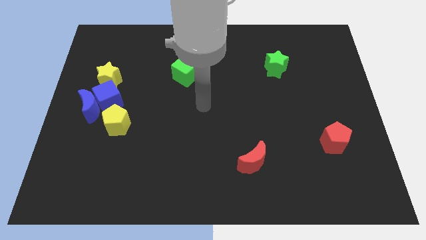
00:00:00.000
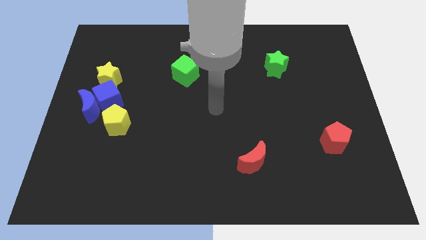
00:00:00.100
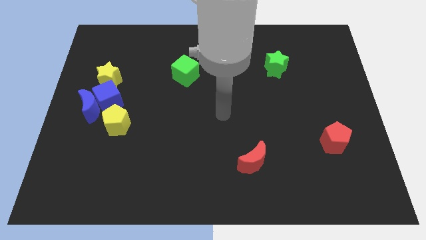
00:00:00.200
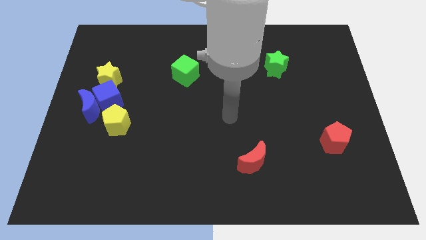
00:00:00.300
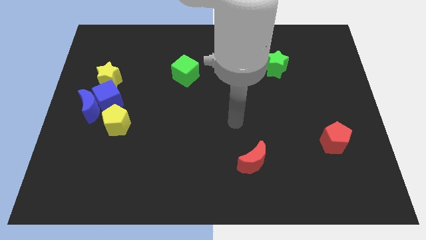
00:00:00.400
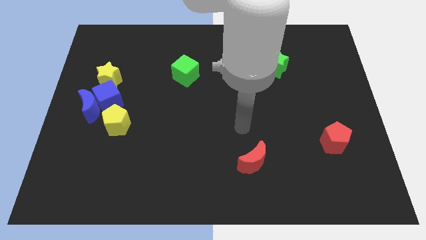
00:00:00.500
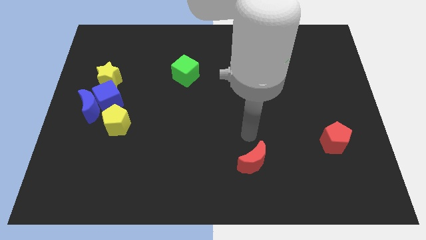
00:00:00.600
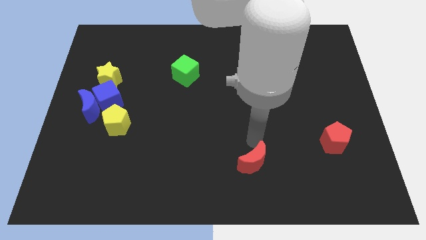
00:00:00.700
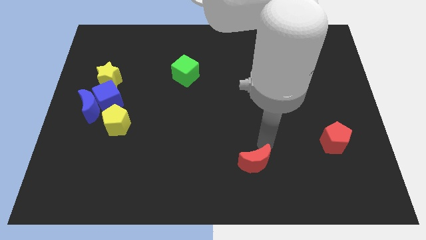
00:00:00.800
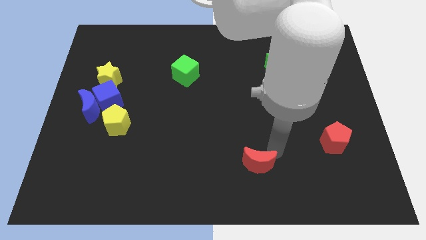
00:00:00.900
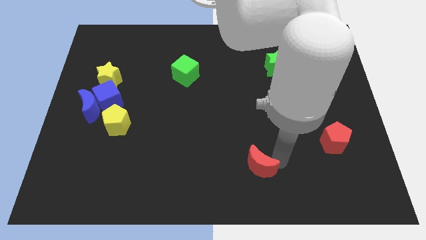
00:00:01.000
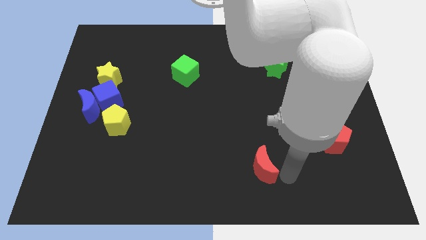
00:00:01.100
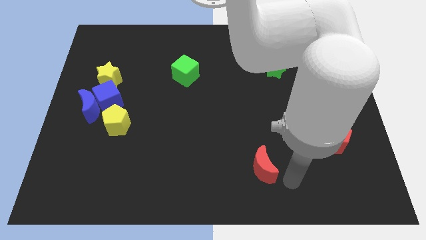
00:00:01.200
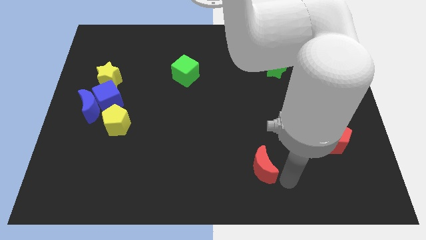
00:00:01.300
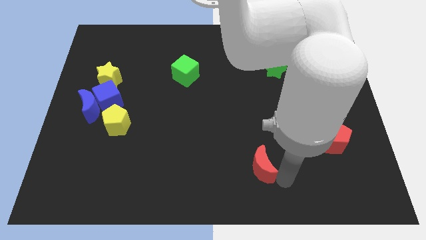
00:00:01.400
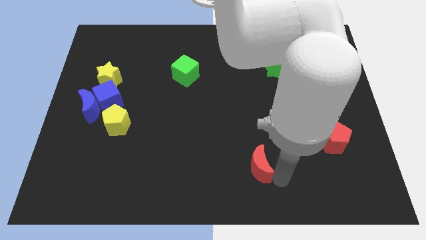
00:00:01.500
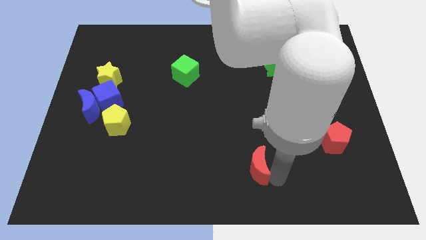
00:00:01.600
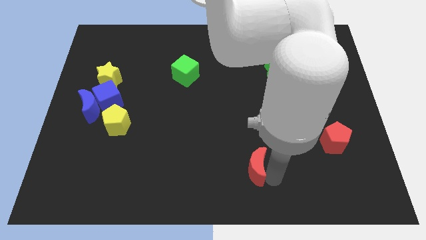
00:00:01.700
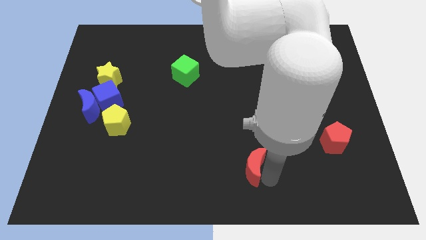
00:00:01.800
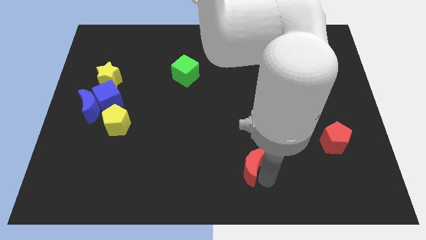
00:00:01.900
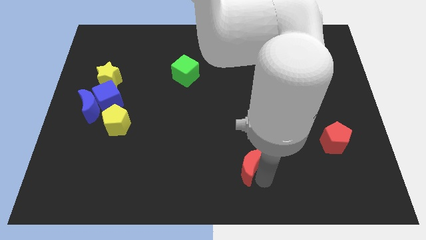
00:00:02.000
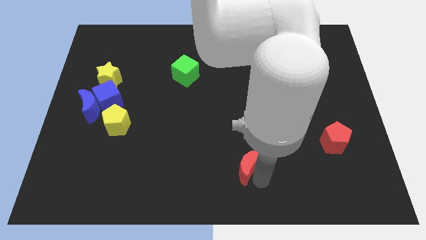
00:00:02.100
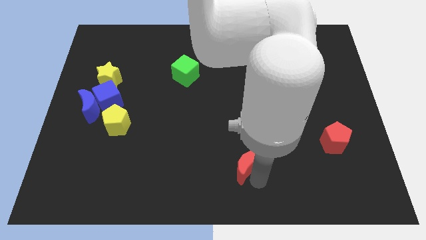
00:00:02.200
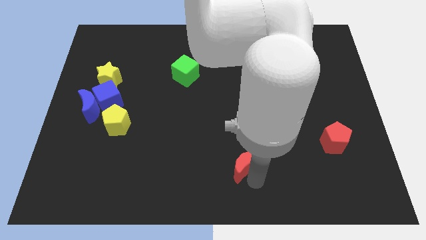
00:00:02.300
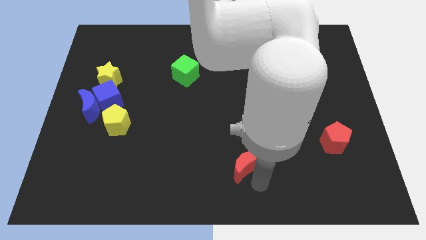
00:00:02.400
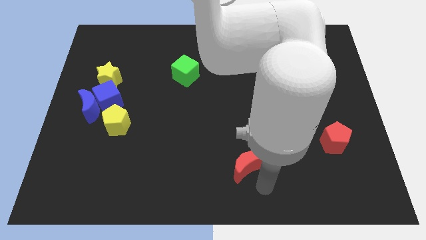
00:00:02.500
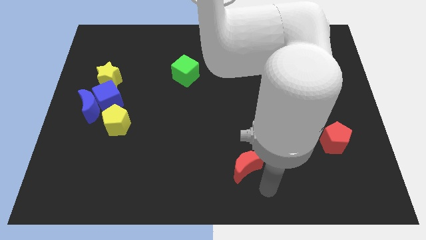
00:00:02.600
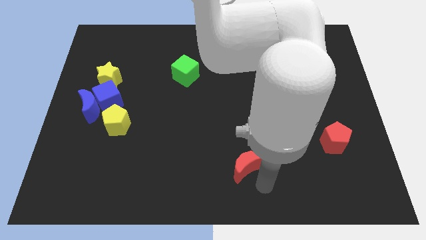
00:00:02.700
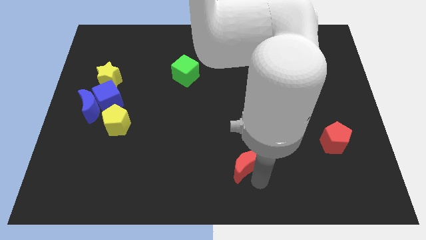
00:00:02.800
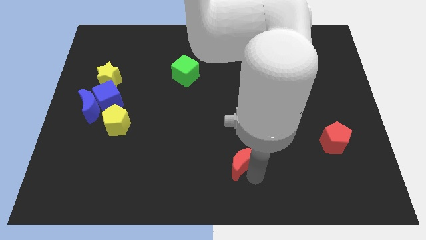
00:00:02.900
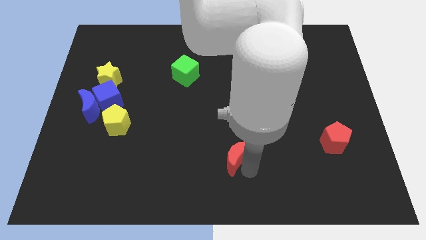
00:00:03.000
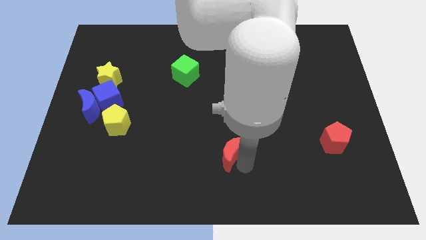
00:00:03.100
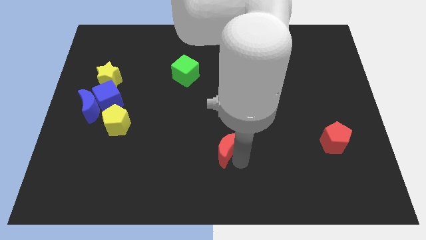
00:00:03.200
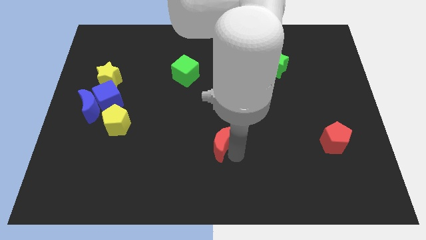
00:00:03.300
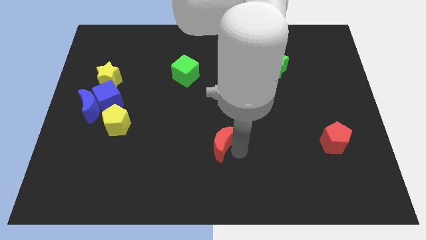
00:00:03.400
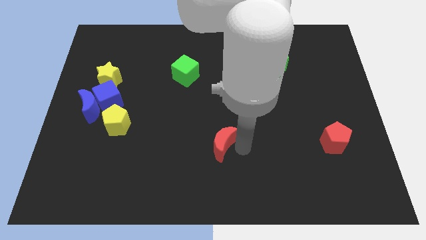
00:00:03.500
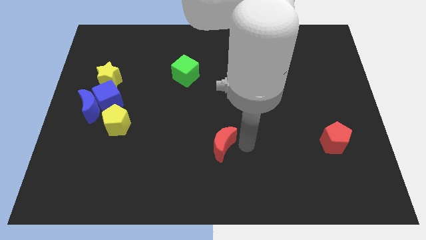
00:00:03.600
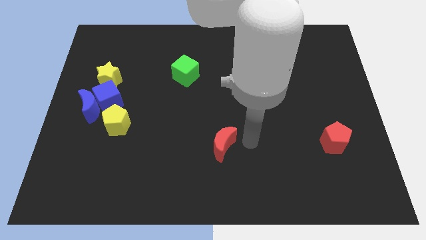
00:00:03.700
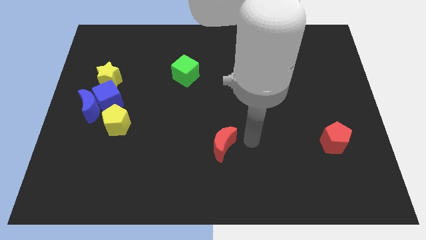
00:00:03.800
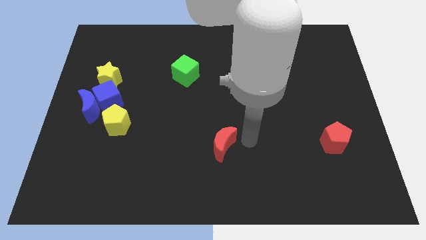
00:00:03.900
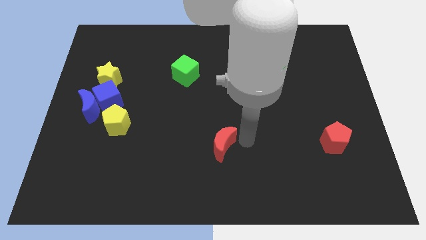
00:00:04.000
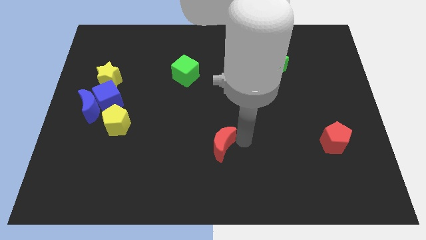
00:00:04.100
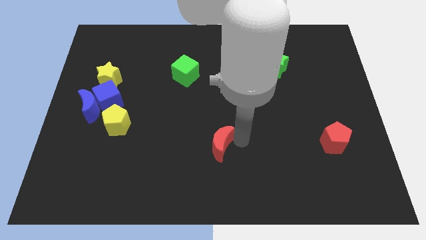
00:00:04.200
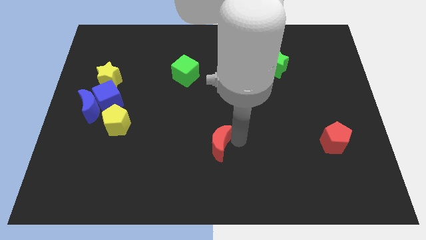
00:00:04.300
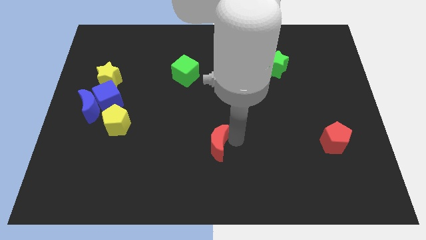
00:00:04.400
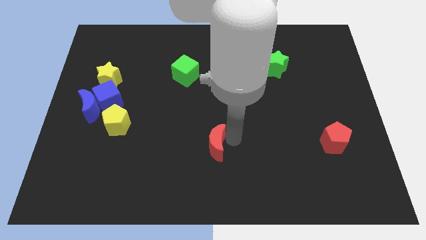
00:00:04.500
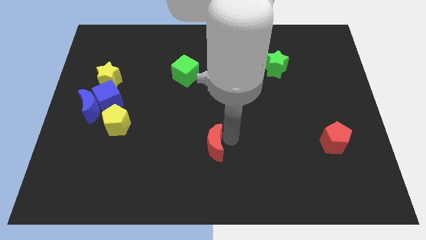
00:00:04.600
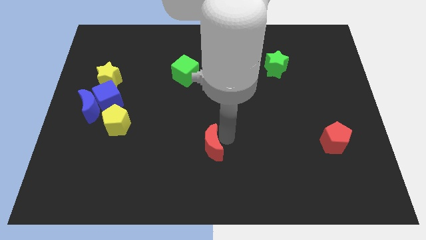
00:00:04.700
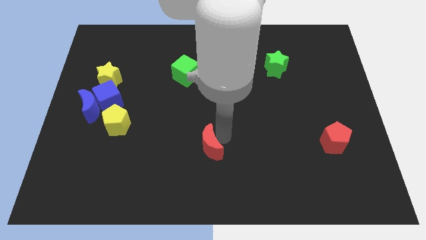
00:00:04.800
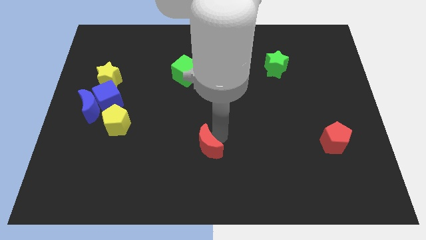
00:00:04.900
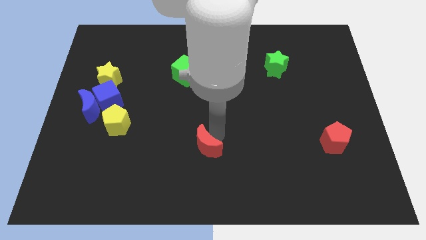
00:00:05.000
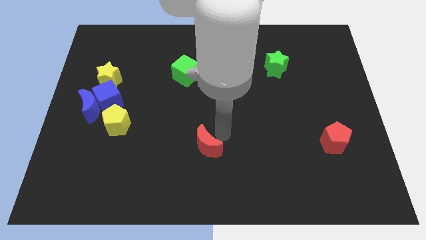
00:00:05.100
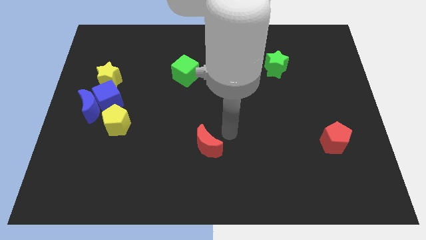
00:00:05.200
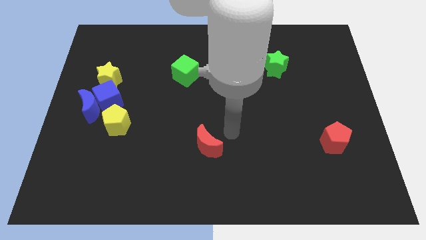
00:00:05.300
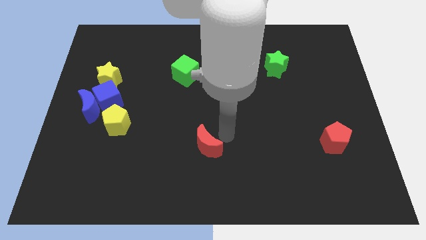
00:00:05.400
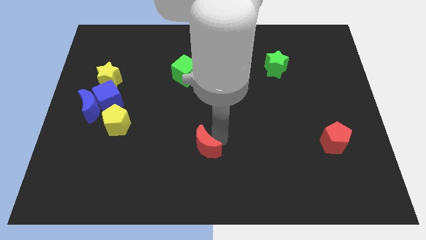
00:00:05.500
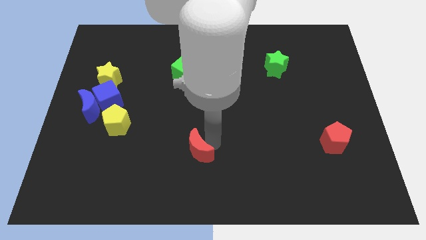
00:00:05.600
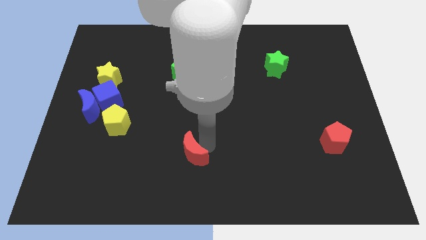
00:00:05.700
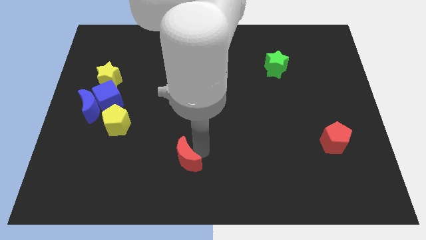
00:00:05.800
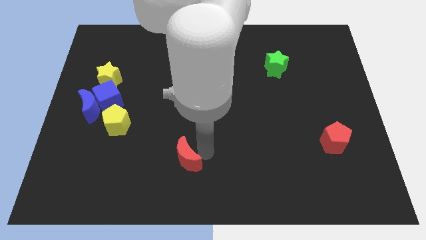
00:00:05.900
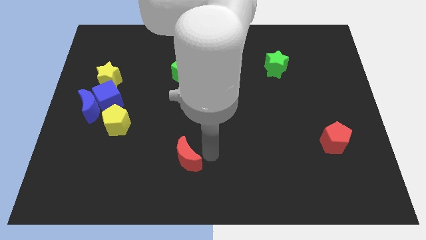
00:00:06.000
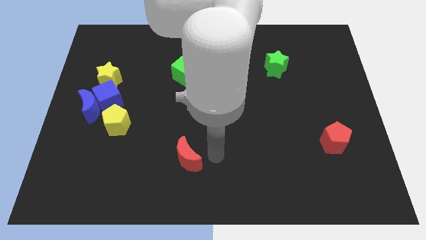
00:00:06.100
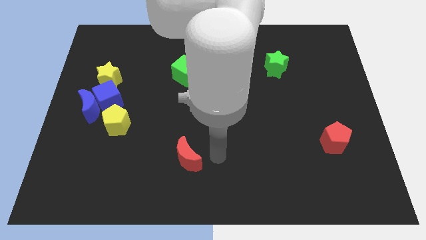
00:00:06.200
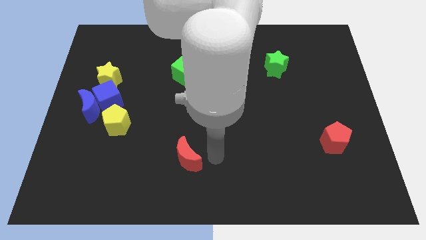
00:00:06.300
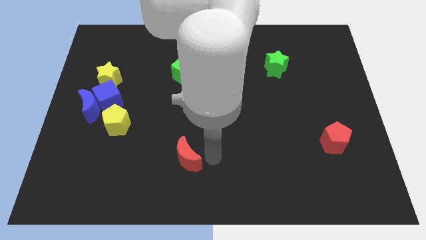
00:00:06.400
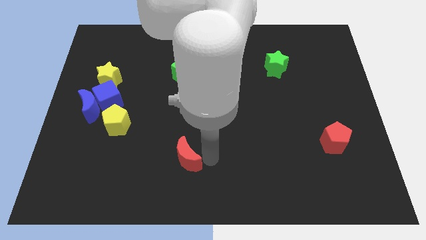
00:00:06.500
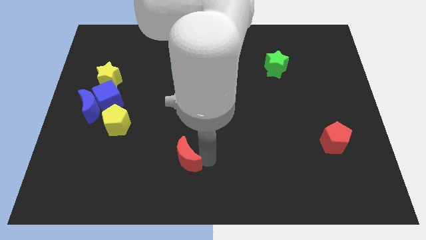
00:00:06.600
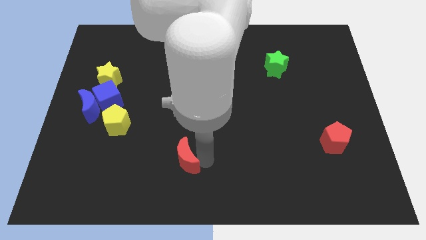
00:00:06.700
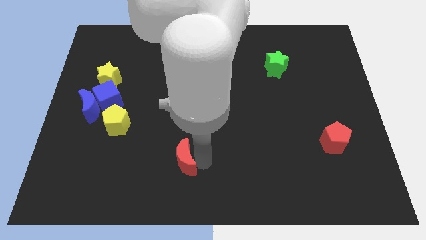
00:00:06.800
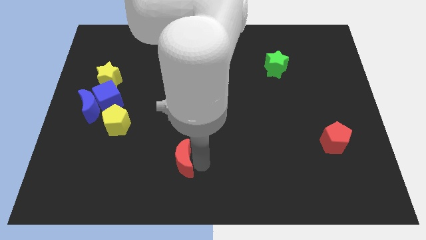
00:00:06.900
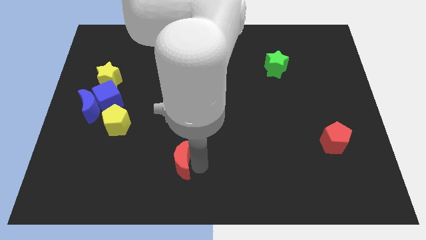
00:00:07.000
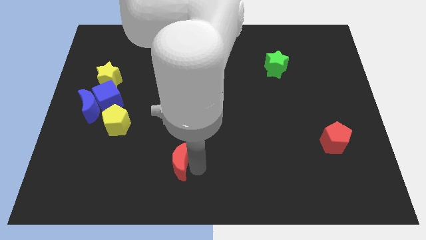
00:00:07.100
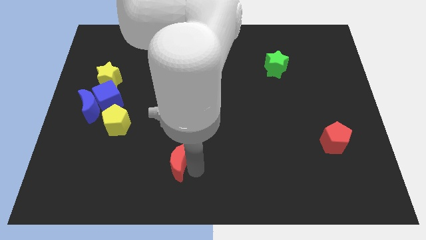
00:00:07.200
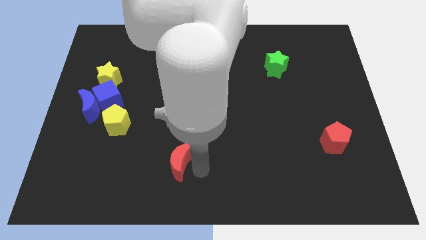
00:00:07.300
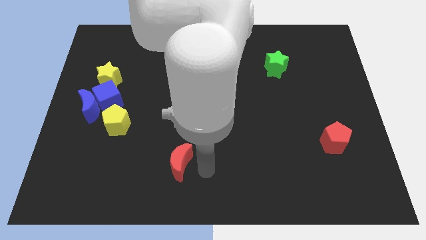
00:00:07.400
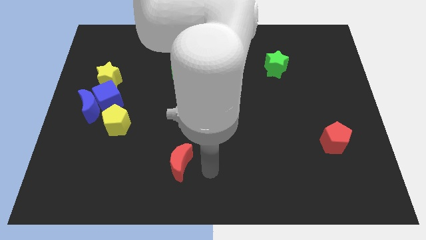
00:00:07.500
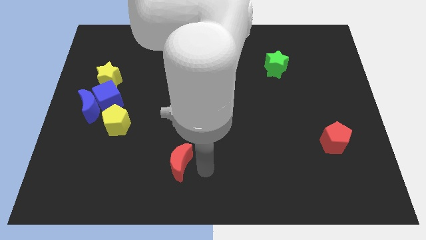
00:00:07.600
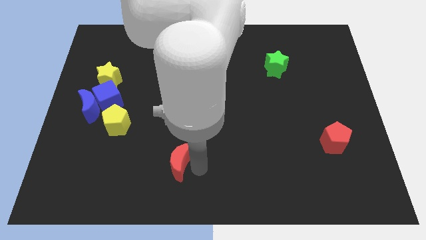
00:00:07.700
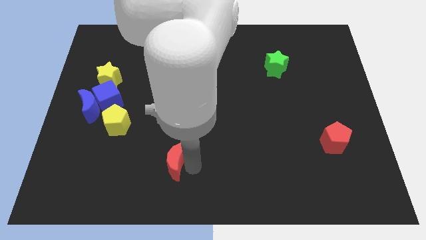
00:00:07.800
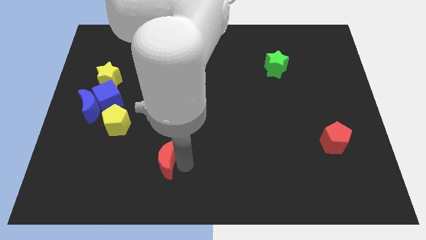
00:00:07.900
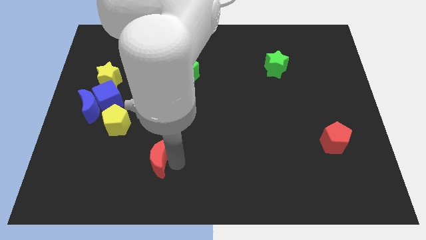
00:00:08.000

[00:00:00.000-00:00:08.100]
push the red moon left

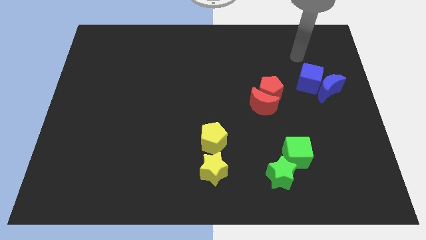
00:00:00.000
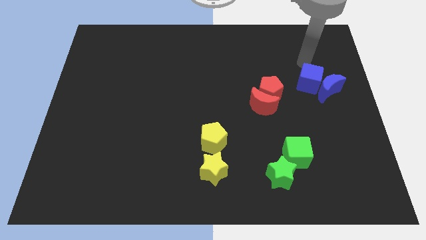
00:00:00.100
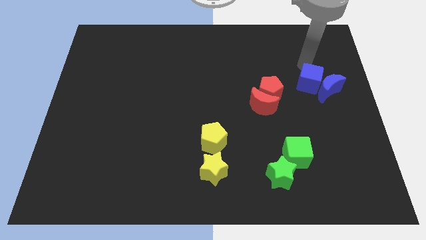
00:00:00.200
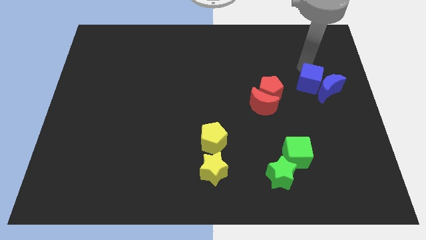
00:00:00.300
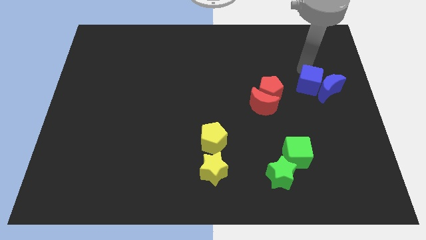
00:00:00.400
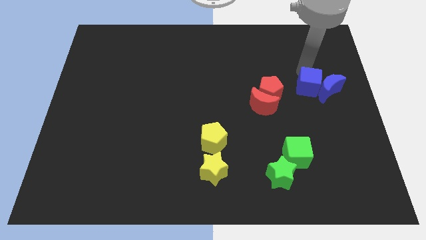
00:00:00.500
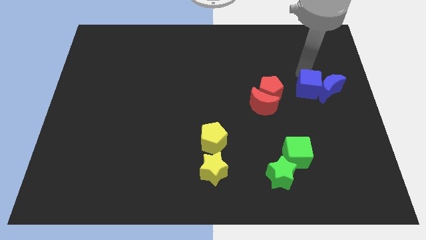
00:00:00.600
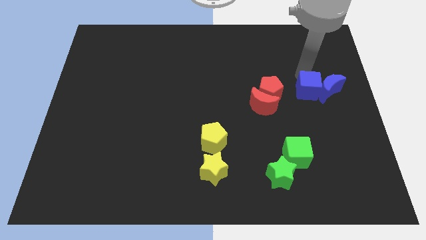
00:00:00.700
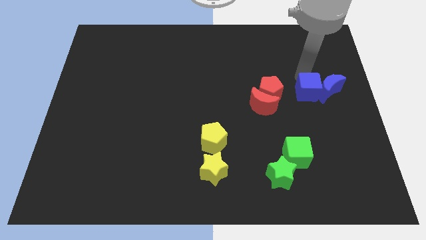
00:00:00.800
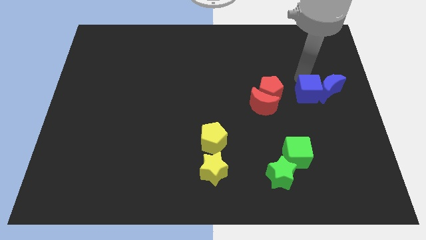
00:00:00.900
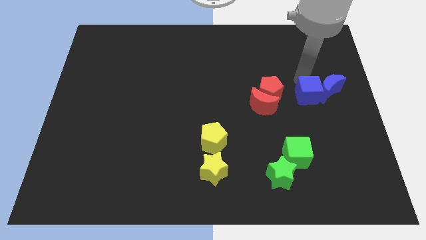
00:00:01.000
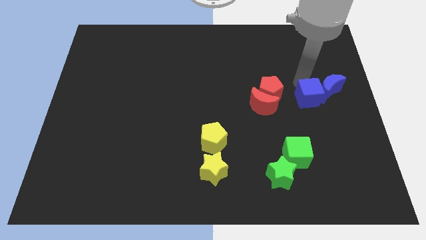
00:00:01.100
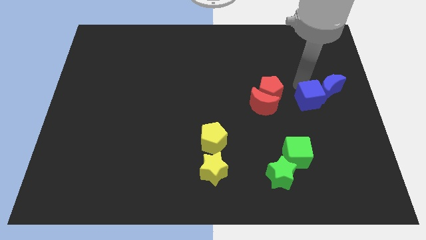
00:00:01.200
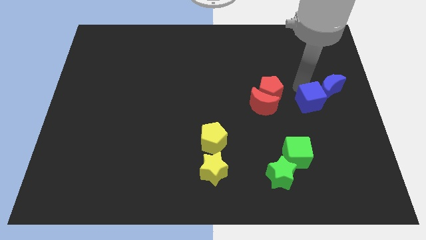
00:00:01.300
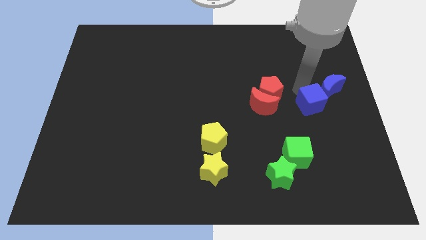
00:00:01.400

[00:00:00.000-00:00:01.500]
slide the blue cube down a little
